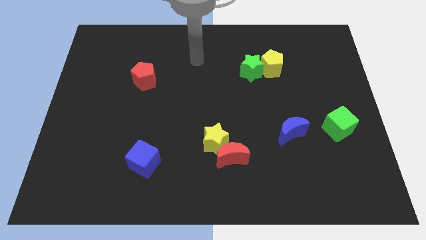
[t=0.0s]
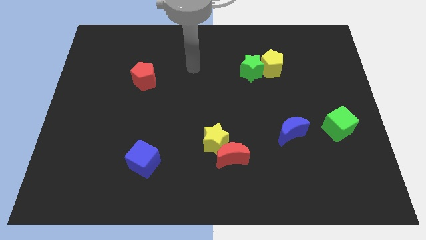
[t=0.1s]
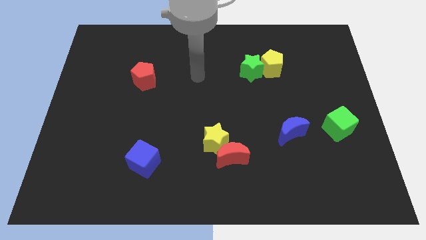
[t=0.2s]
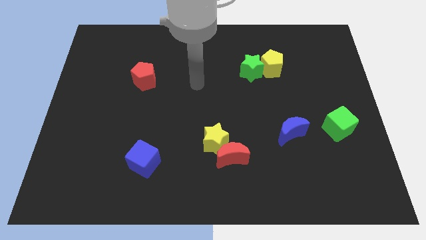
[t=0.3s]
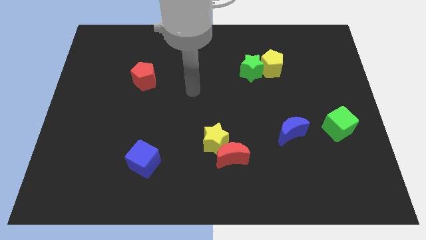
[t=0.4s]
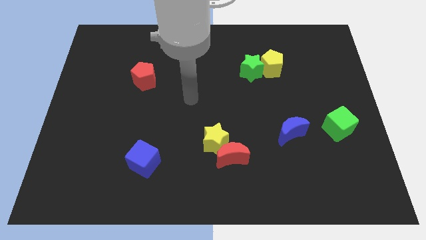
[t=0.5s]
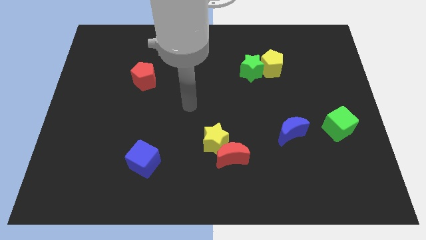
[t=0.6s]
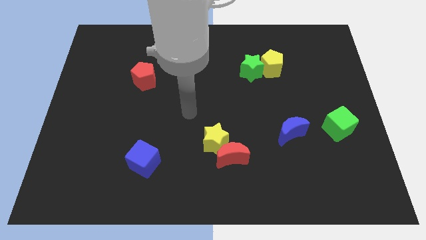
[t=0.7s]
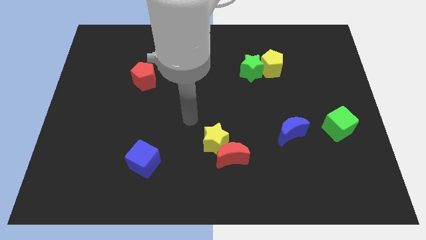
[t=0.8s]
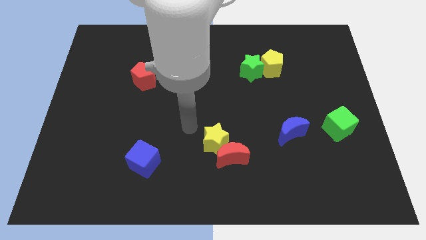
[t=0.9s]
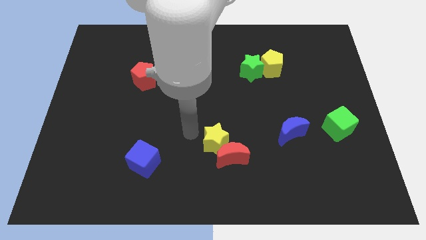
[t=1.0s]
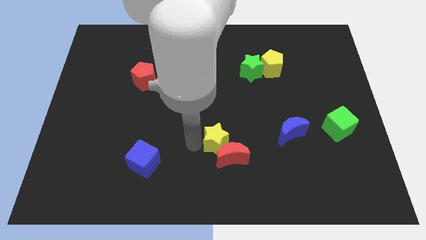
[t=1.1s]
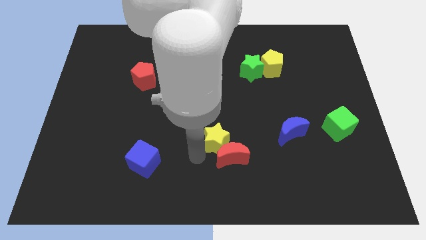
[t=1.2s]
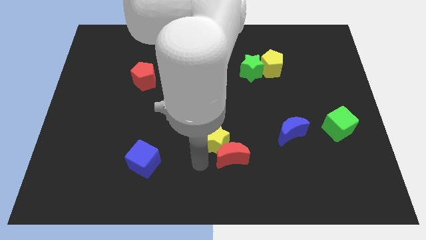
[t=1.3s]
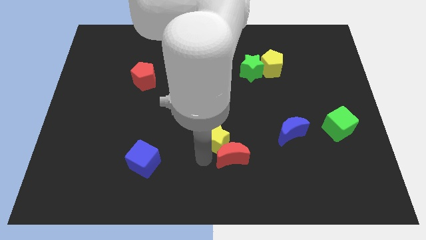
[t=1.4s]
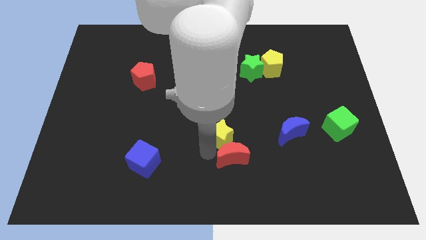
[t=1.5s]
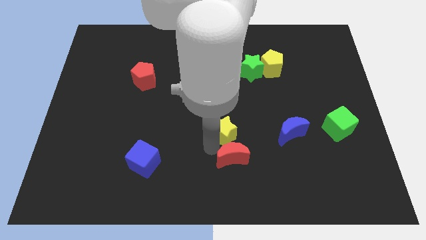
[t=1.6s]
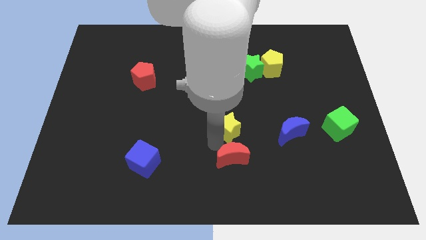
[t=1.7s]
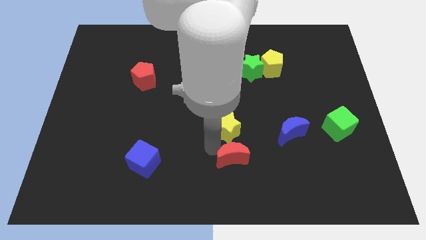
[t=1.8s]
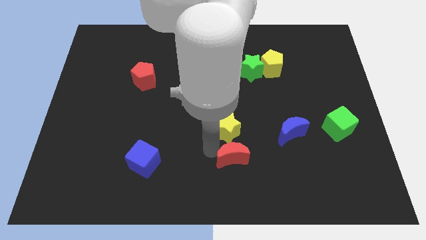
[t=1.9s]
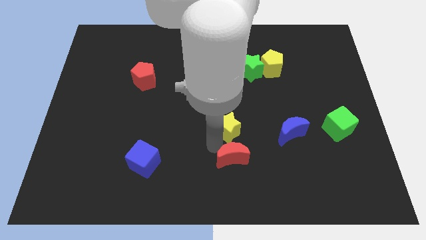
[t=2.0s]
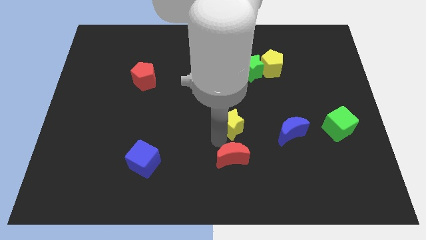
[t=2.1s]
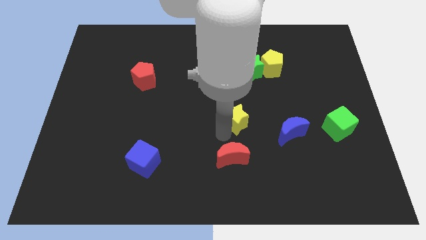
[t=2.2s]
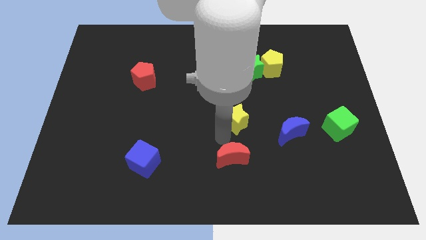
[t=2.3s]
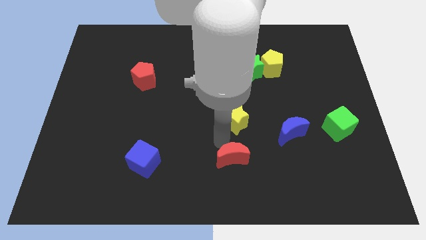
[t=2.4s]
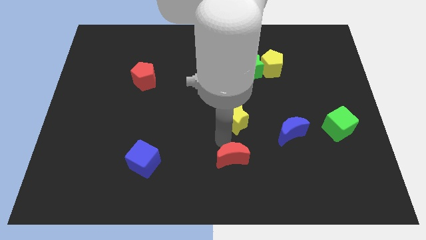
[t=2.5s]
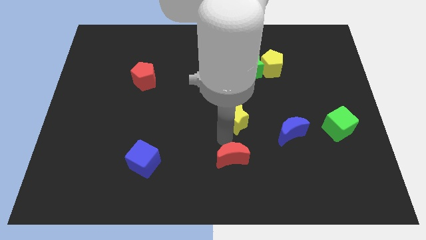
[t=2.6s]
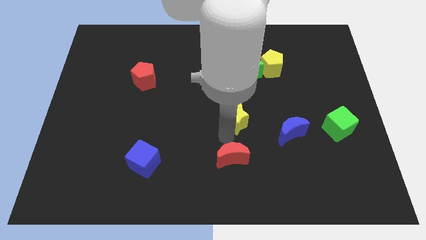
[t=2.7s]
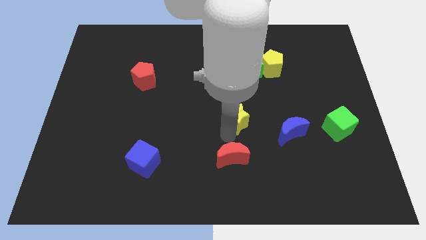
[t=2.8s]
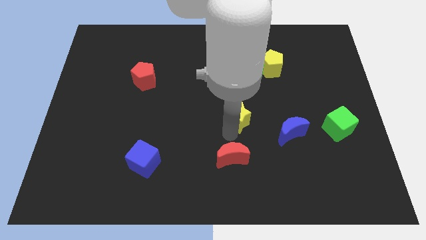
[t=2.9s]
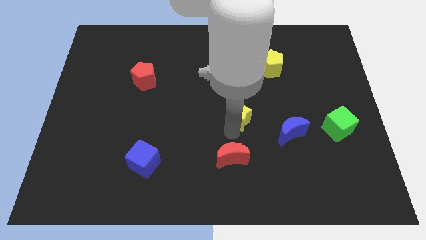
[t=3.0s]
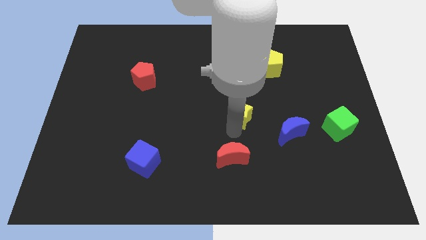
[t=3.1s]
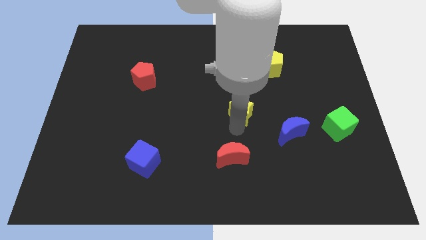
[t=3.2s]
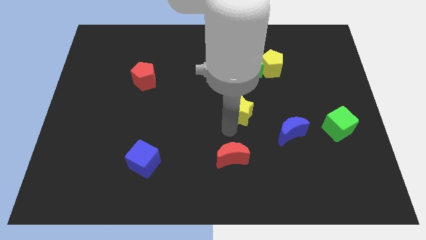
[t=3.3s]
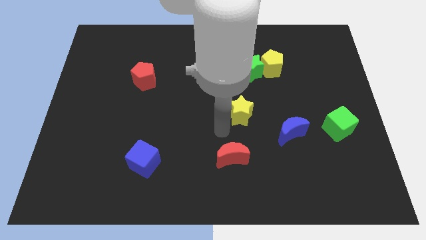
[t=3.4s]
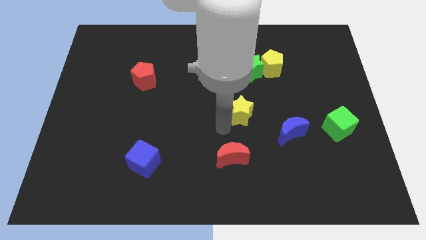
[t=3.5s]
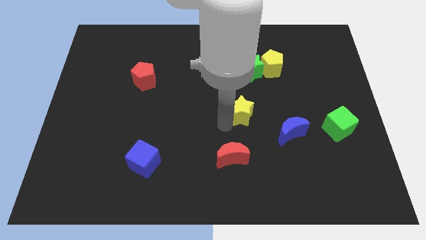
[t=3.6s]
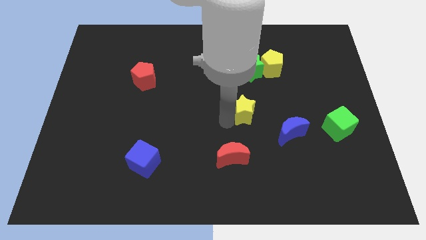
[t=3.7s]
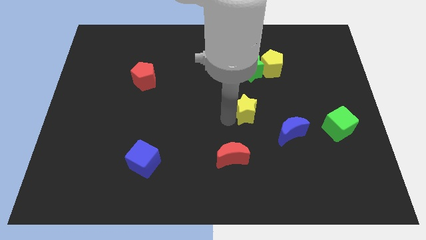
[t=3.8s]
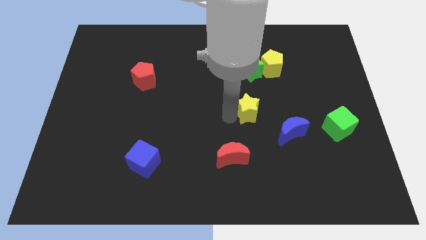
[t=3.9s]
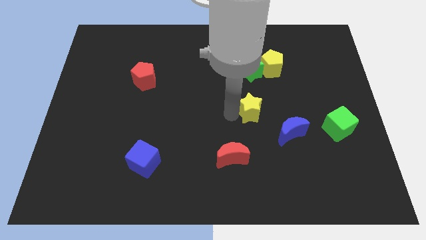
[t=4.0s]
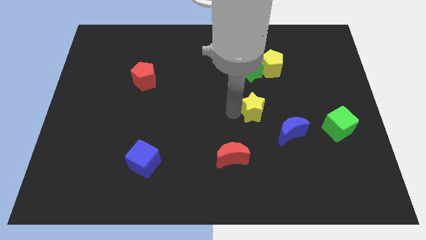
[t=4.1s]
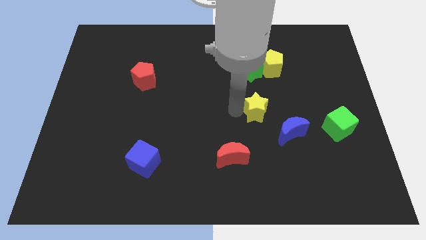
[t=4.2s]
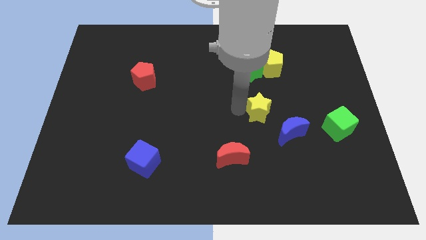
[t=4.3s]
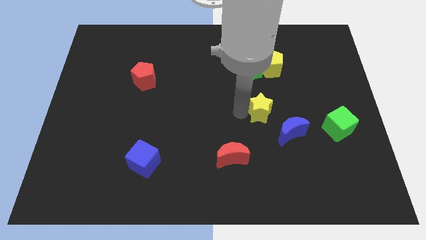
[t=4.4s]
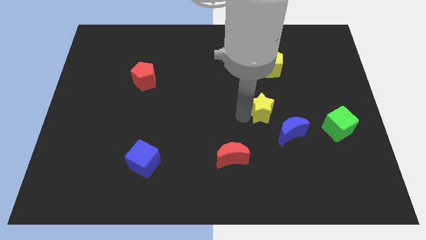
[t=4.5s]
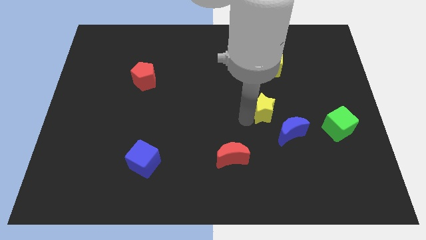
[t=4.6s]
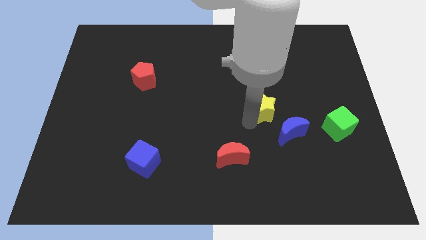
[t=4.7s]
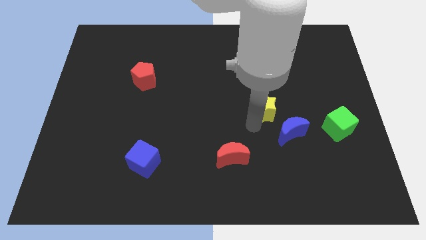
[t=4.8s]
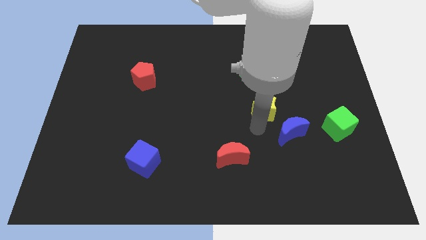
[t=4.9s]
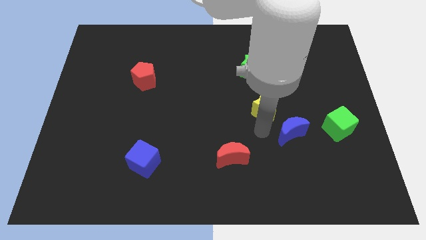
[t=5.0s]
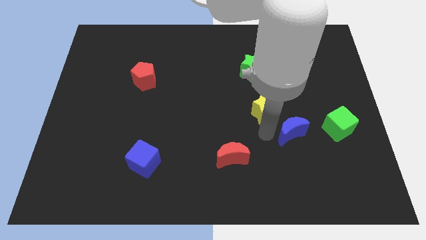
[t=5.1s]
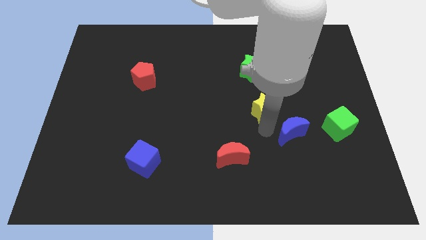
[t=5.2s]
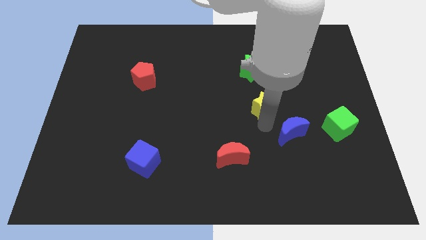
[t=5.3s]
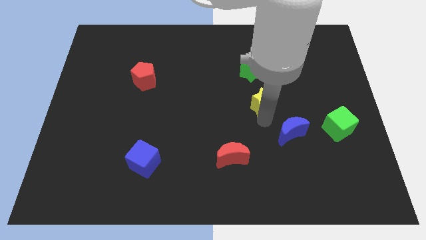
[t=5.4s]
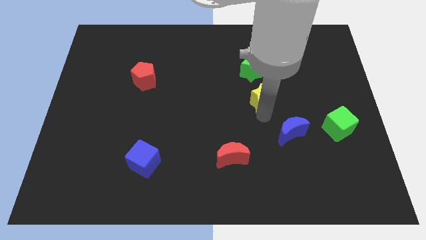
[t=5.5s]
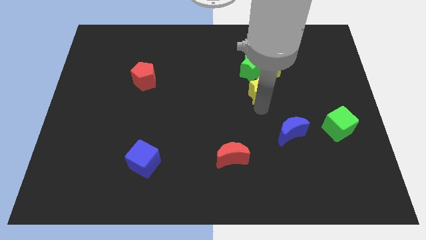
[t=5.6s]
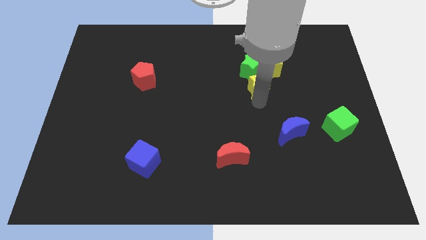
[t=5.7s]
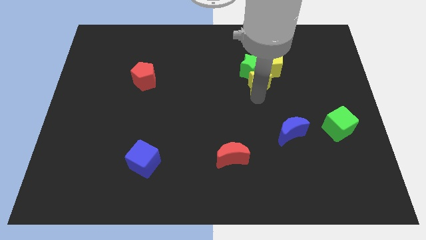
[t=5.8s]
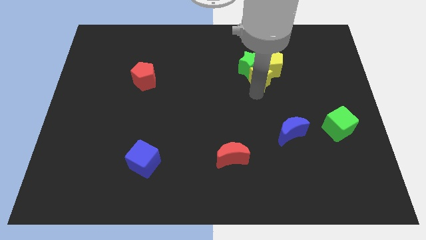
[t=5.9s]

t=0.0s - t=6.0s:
push the yellow star close to the yellow pentagon

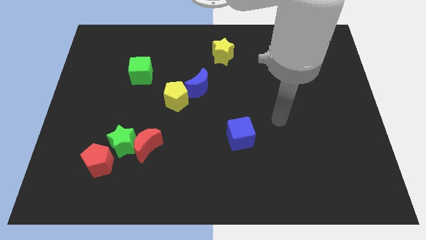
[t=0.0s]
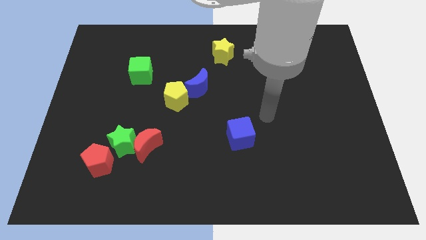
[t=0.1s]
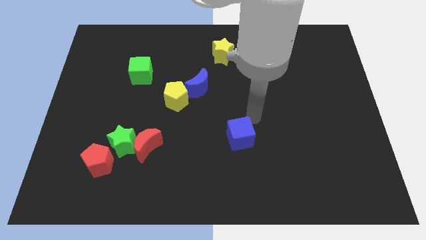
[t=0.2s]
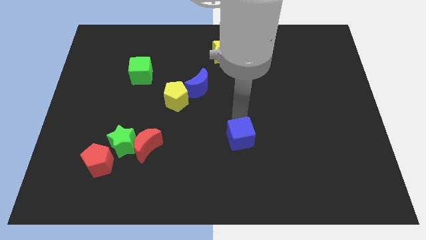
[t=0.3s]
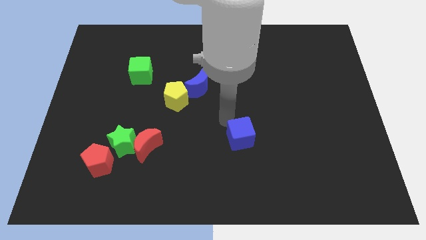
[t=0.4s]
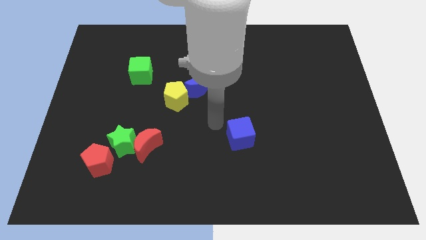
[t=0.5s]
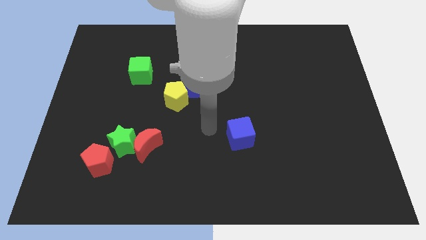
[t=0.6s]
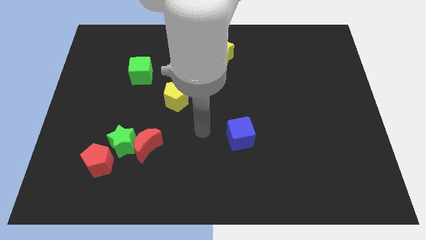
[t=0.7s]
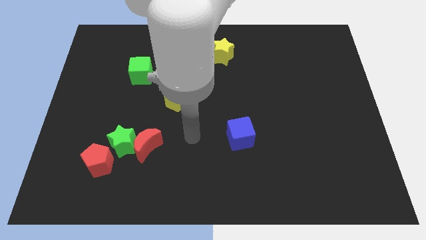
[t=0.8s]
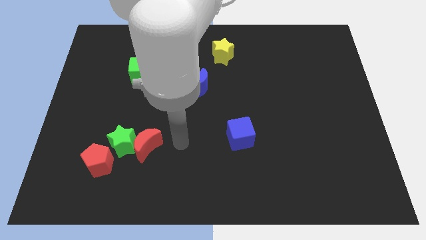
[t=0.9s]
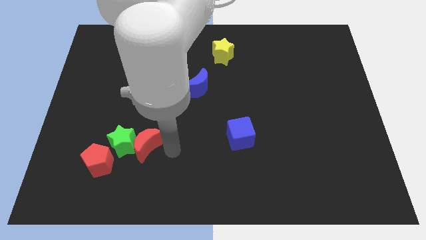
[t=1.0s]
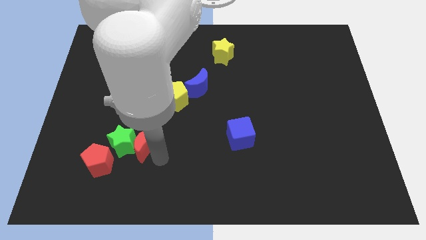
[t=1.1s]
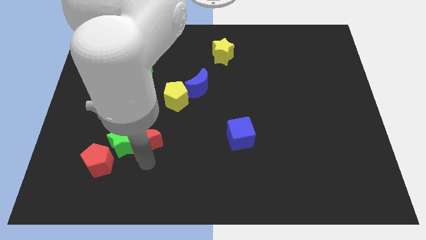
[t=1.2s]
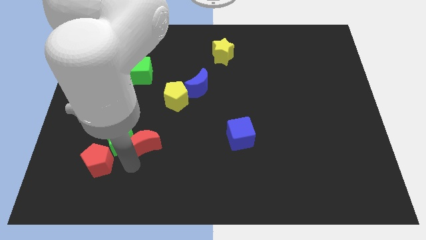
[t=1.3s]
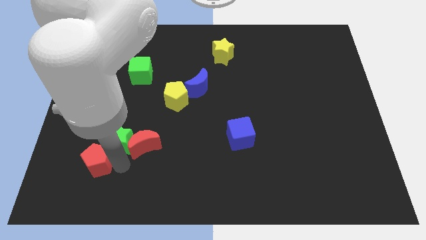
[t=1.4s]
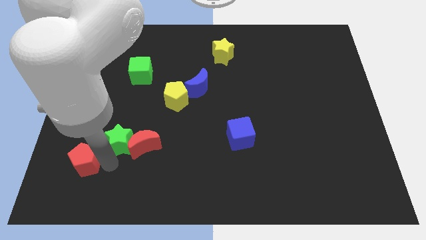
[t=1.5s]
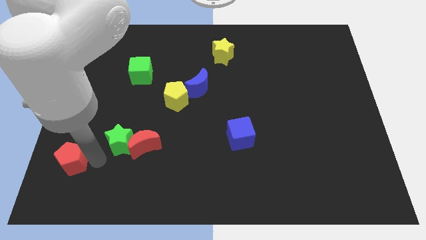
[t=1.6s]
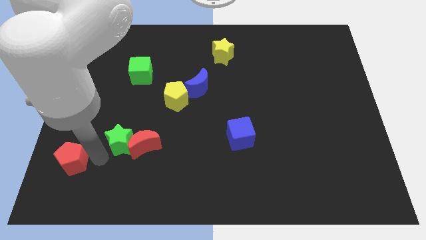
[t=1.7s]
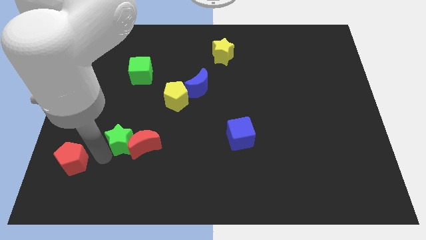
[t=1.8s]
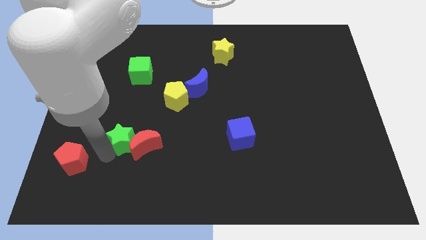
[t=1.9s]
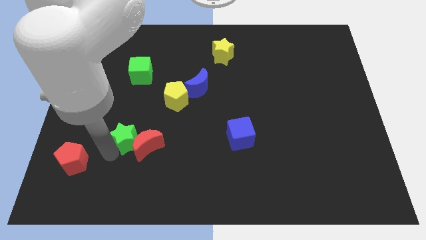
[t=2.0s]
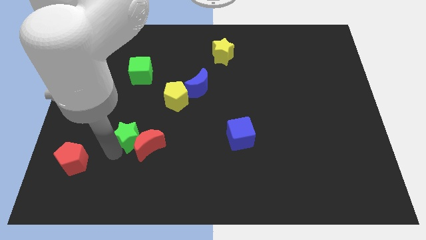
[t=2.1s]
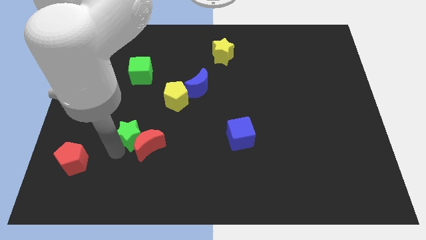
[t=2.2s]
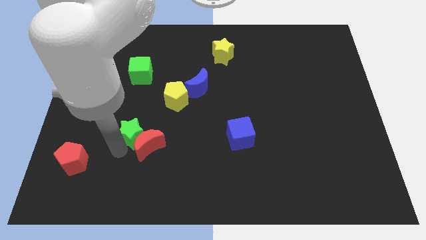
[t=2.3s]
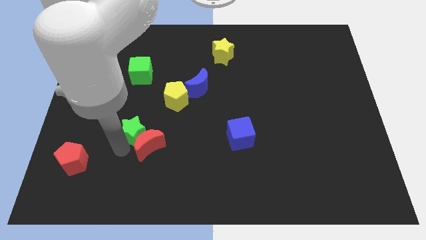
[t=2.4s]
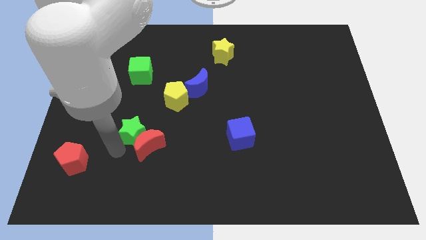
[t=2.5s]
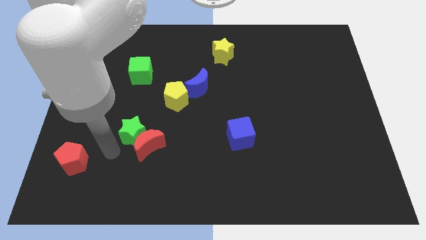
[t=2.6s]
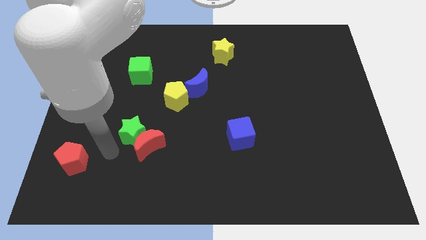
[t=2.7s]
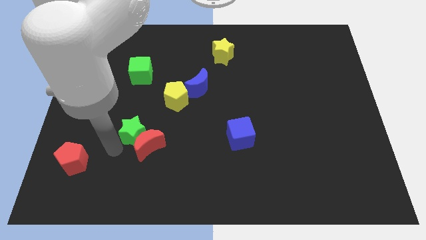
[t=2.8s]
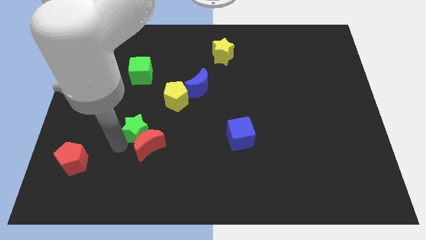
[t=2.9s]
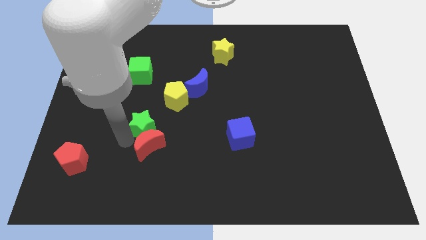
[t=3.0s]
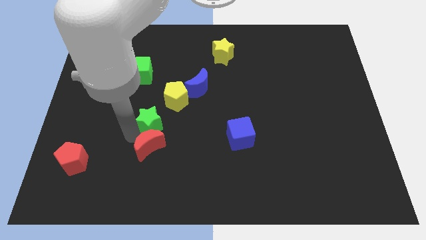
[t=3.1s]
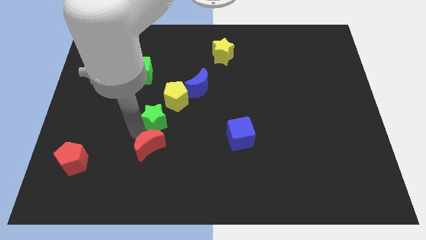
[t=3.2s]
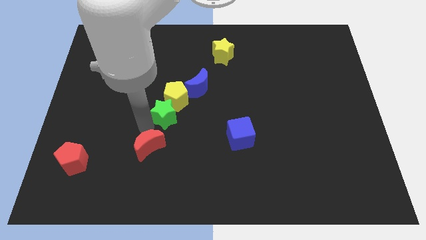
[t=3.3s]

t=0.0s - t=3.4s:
move the green star to the yellow pentagon
